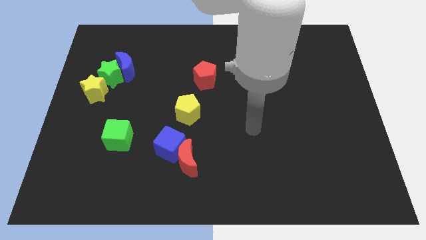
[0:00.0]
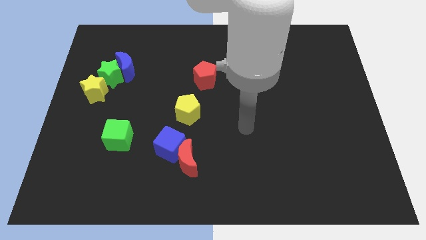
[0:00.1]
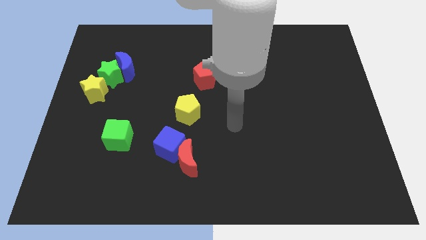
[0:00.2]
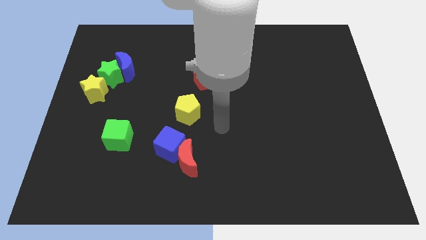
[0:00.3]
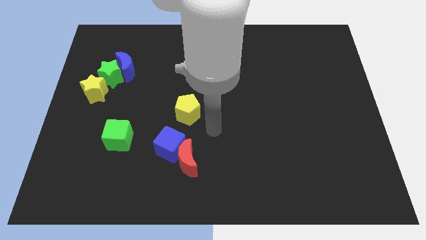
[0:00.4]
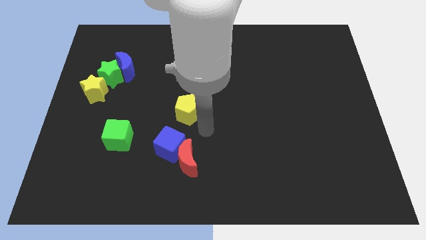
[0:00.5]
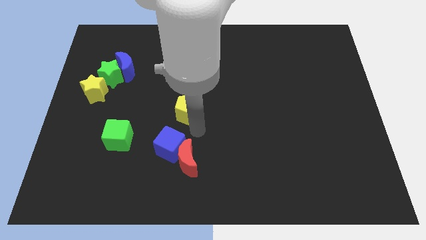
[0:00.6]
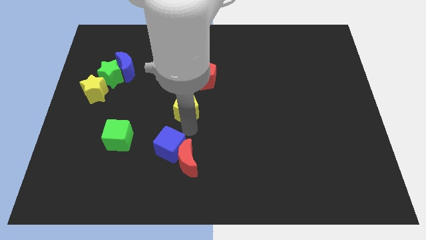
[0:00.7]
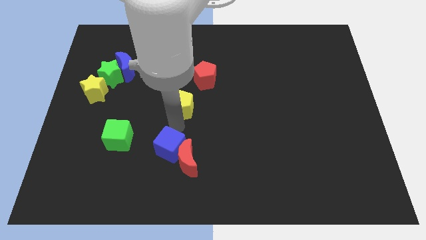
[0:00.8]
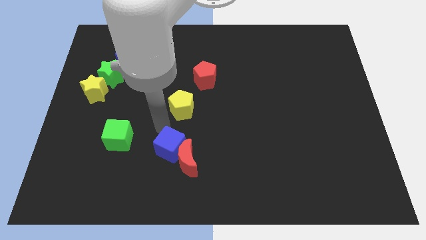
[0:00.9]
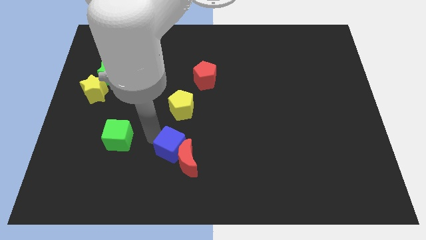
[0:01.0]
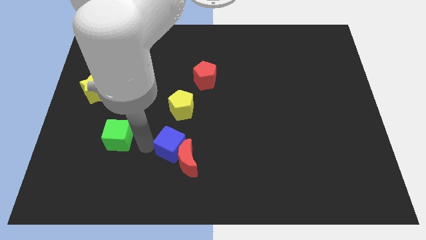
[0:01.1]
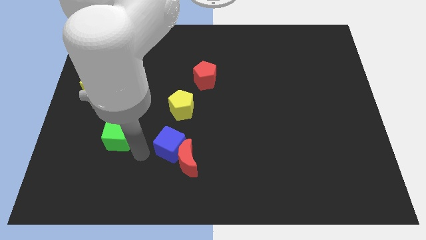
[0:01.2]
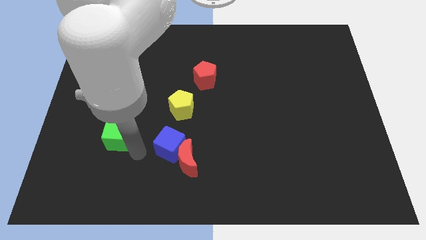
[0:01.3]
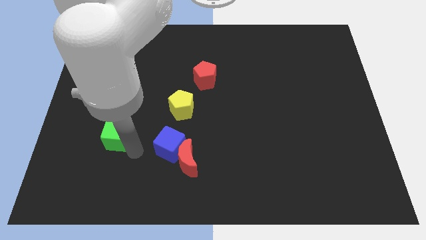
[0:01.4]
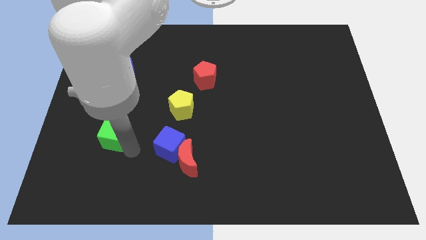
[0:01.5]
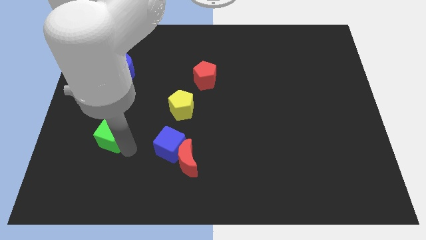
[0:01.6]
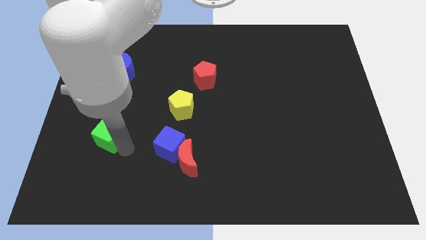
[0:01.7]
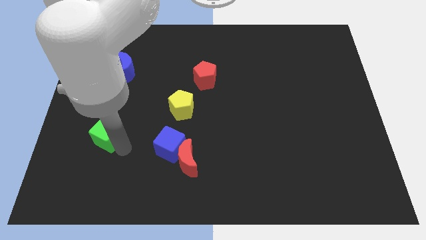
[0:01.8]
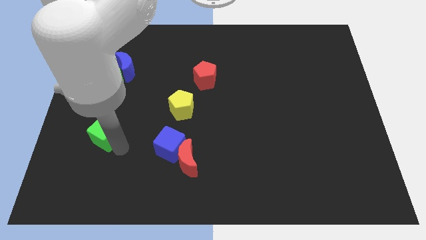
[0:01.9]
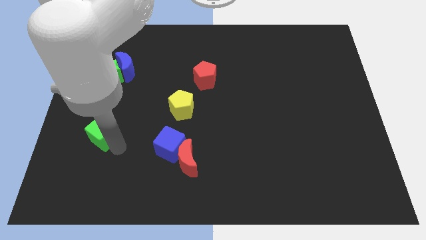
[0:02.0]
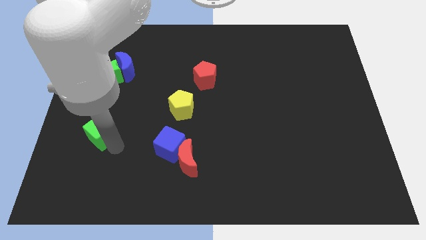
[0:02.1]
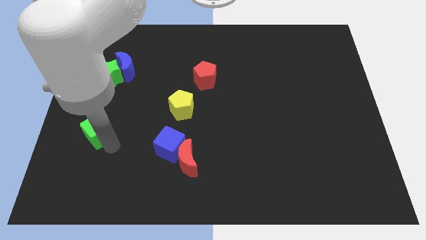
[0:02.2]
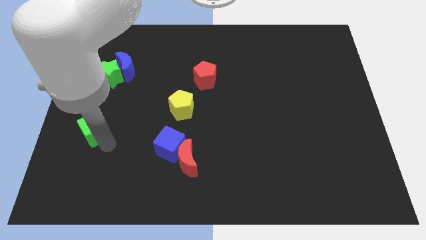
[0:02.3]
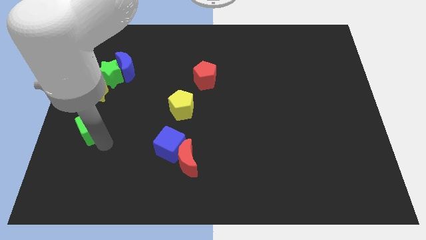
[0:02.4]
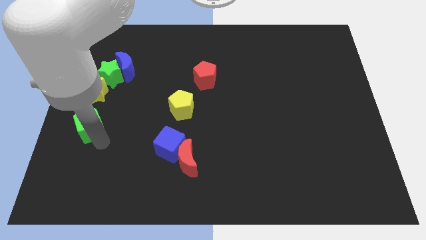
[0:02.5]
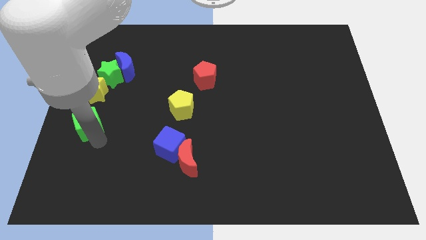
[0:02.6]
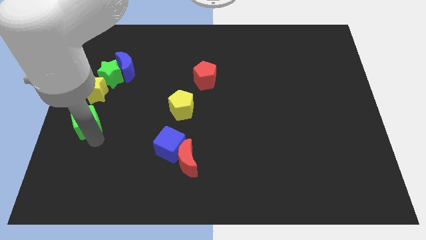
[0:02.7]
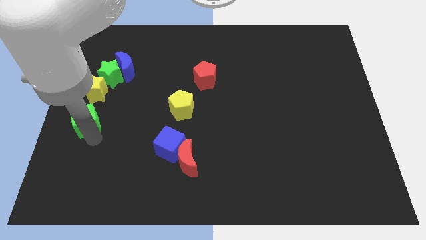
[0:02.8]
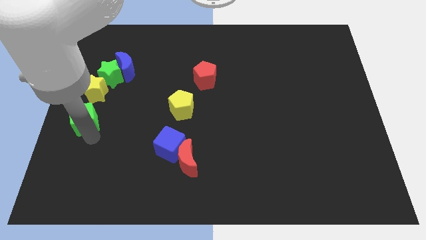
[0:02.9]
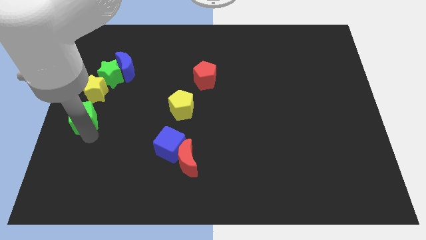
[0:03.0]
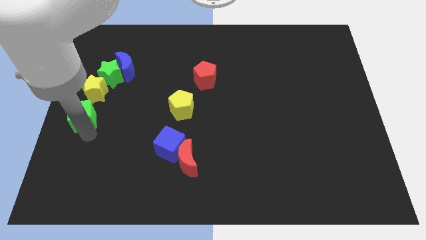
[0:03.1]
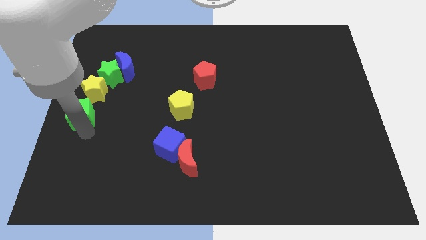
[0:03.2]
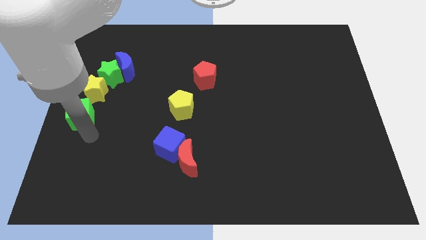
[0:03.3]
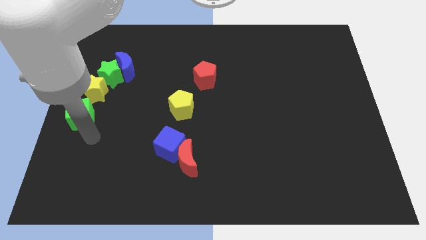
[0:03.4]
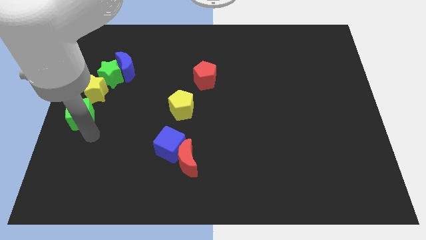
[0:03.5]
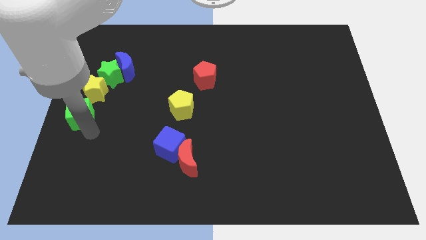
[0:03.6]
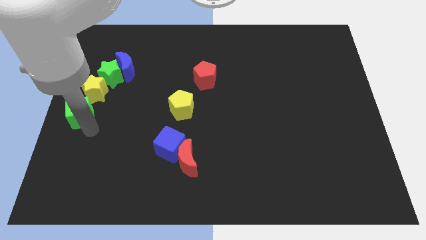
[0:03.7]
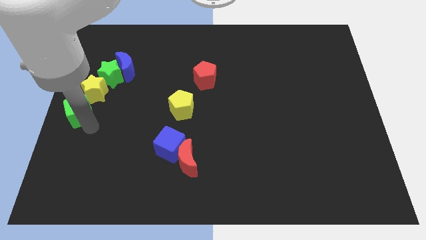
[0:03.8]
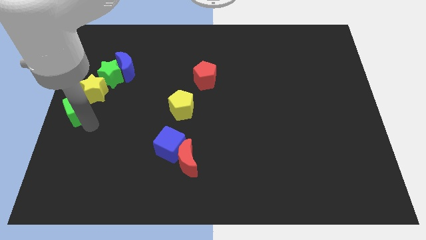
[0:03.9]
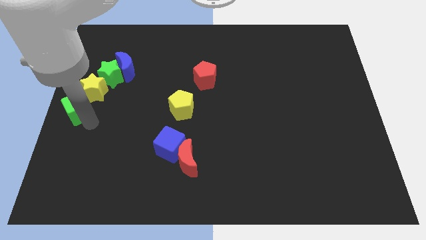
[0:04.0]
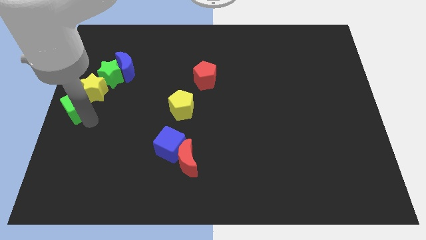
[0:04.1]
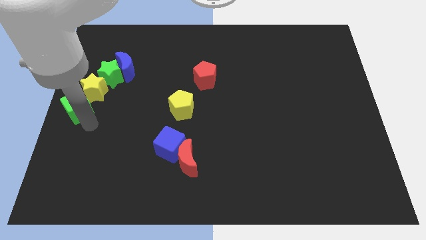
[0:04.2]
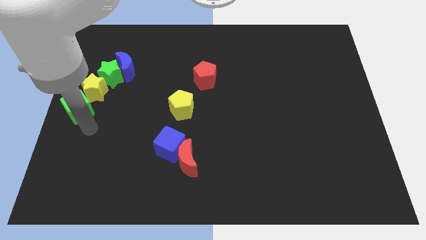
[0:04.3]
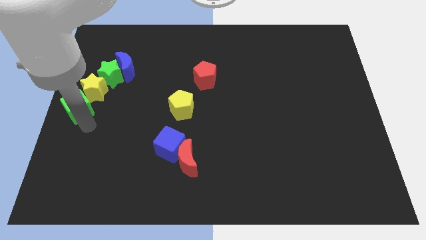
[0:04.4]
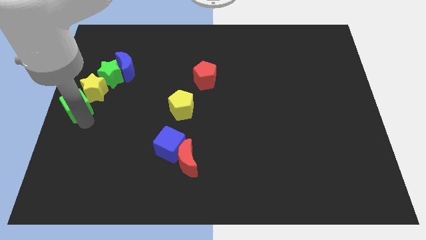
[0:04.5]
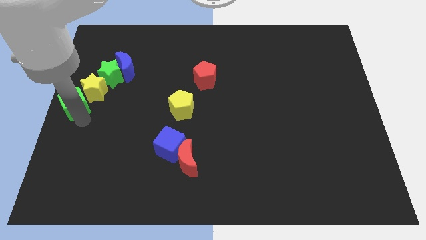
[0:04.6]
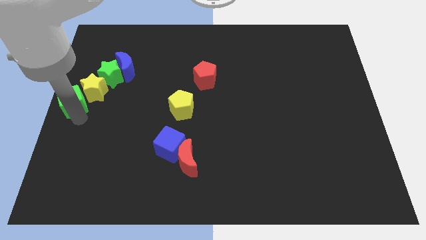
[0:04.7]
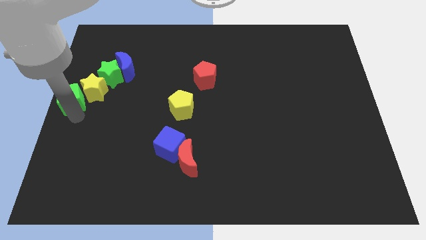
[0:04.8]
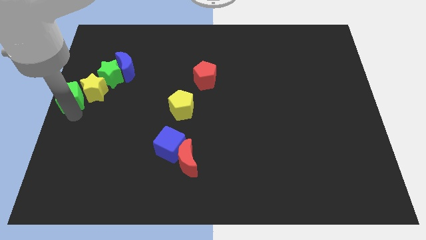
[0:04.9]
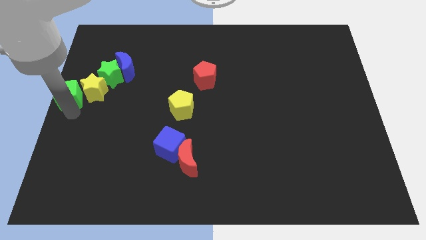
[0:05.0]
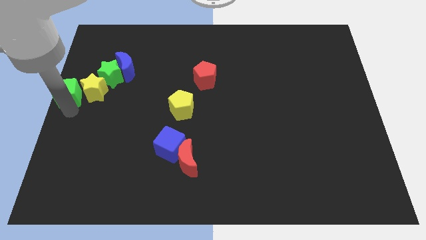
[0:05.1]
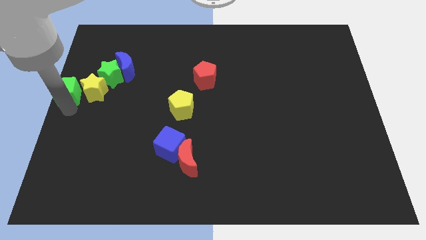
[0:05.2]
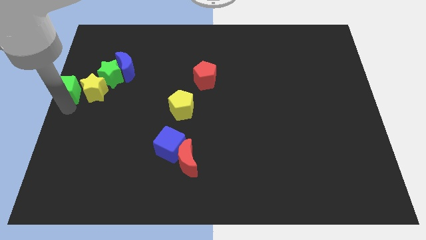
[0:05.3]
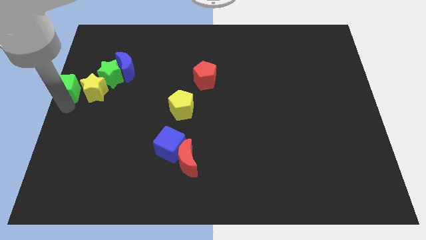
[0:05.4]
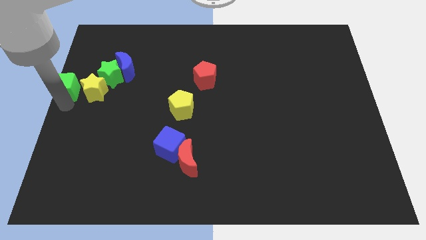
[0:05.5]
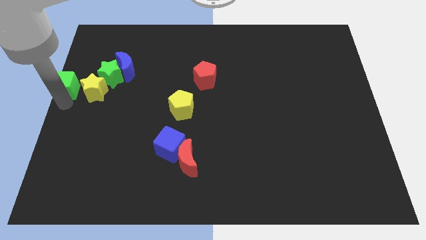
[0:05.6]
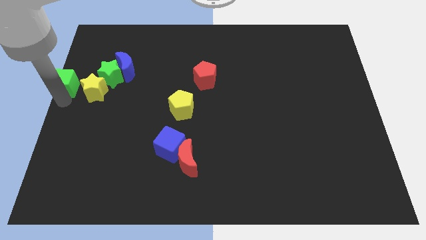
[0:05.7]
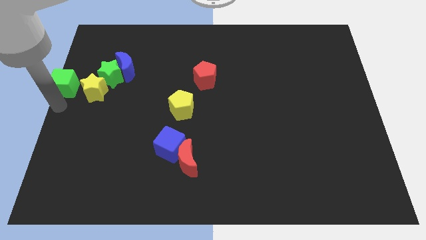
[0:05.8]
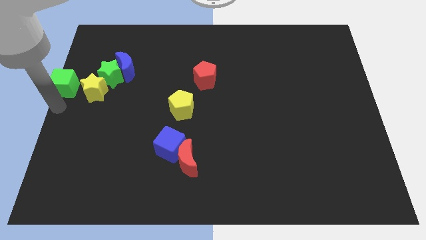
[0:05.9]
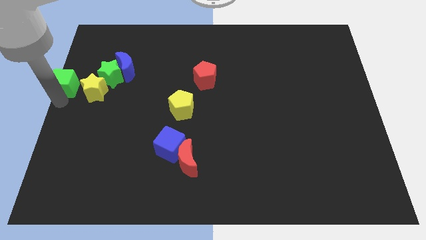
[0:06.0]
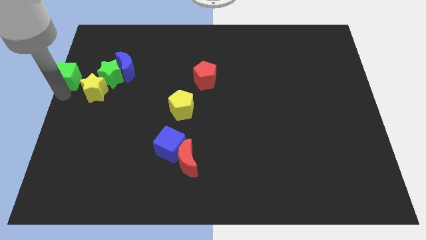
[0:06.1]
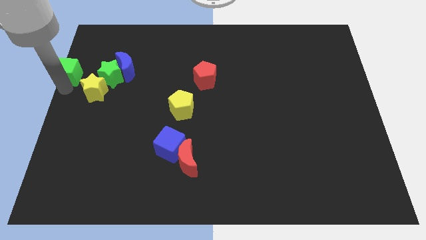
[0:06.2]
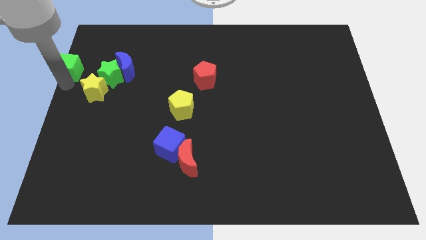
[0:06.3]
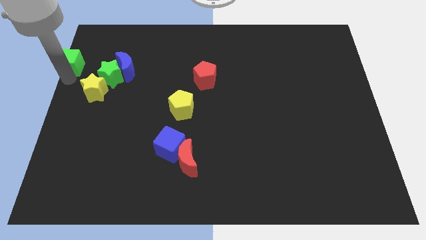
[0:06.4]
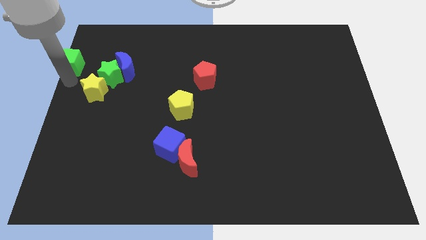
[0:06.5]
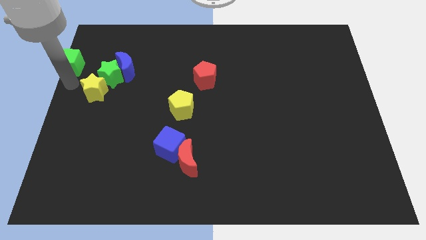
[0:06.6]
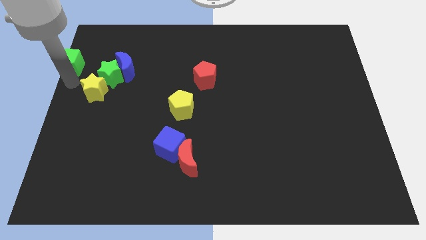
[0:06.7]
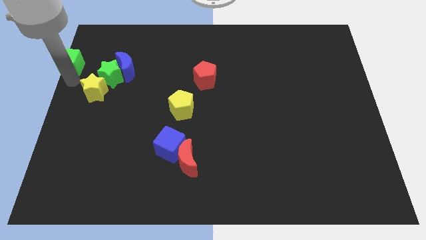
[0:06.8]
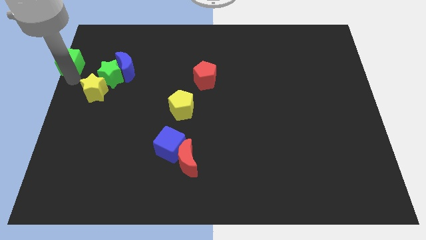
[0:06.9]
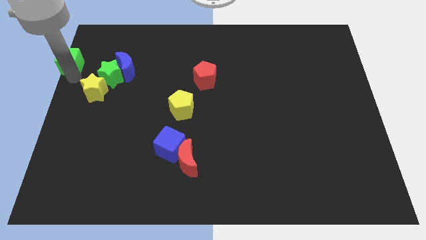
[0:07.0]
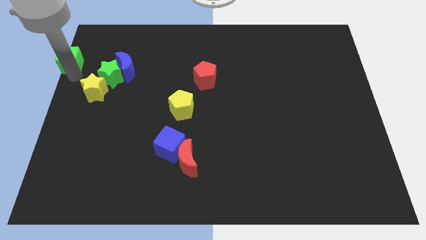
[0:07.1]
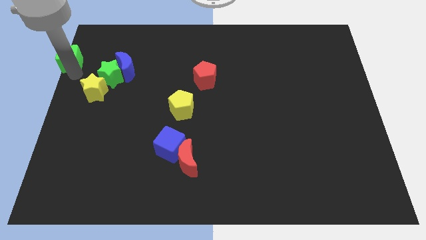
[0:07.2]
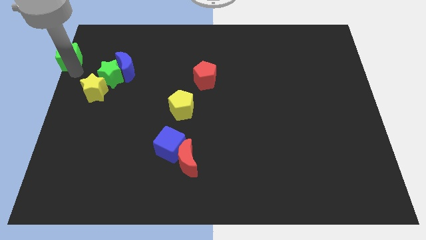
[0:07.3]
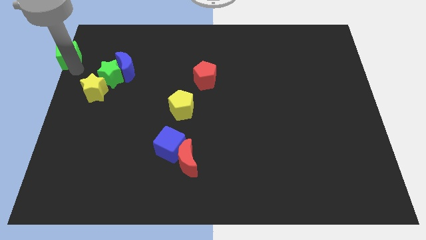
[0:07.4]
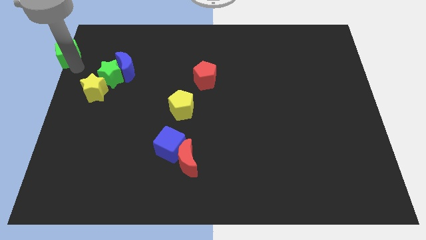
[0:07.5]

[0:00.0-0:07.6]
put the green cube to the top left
